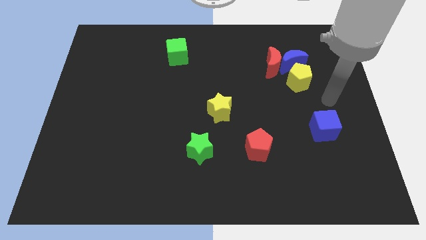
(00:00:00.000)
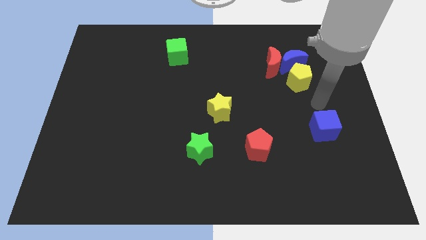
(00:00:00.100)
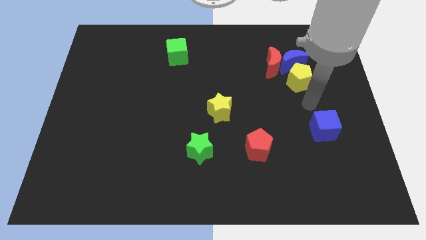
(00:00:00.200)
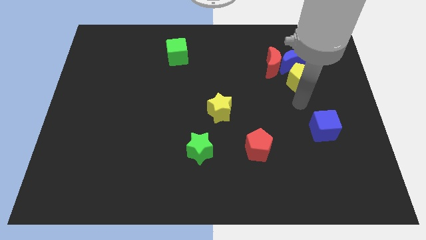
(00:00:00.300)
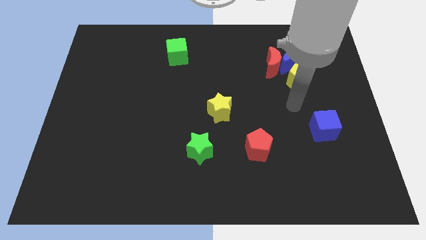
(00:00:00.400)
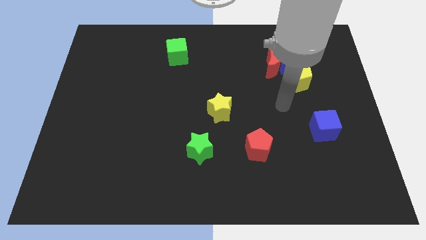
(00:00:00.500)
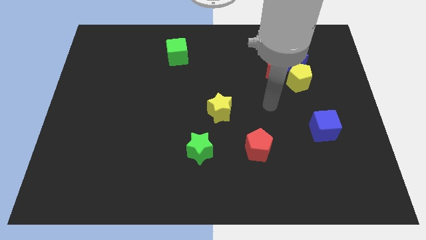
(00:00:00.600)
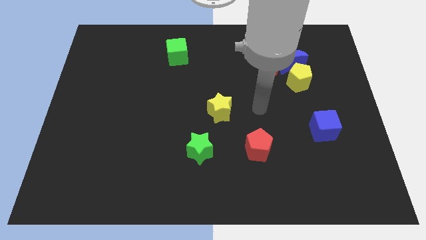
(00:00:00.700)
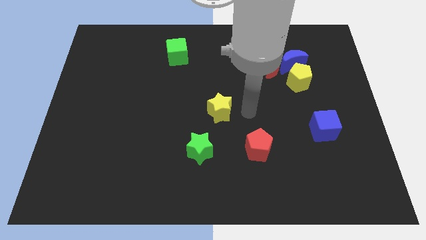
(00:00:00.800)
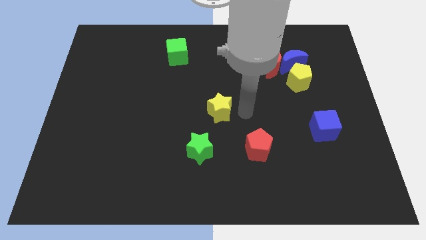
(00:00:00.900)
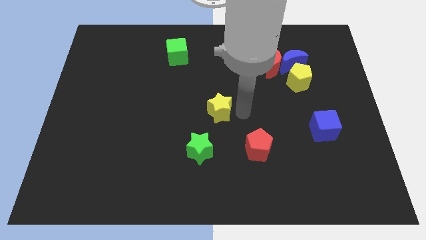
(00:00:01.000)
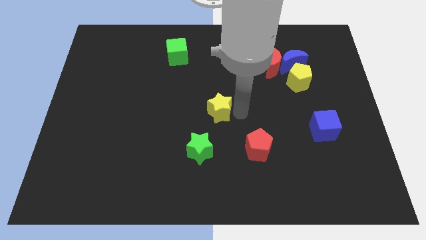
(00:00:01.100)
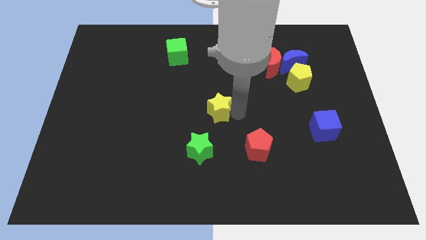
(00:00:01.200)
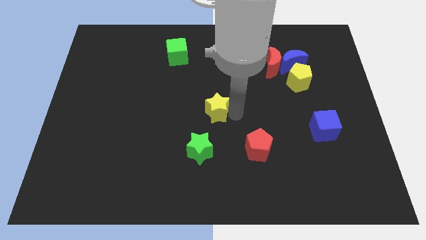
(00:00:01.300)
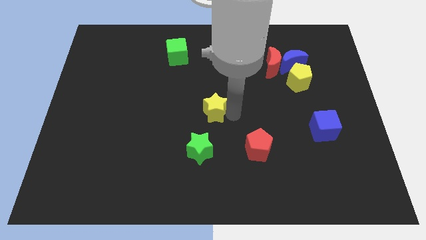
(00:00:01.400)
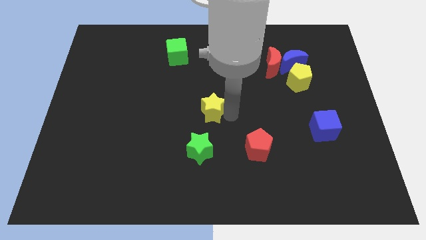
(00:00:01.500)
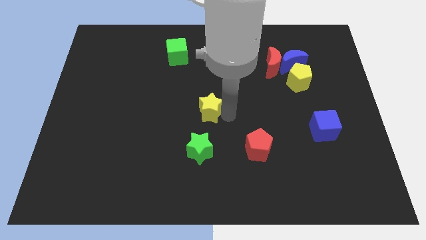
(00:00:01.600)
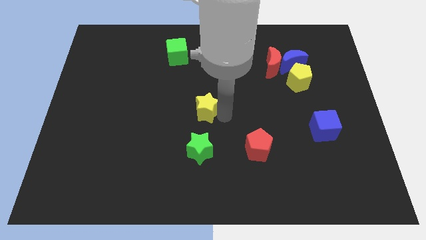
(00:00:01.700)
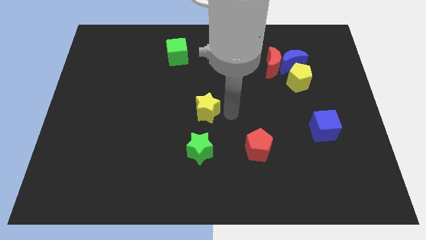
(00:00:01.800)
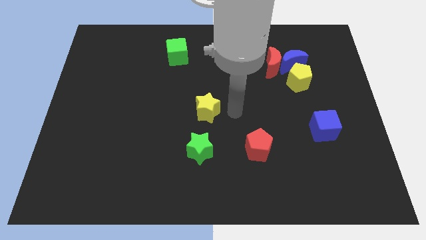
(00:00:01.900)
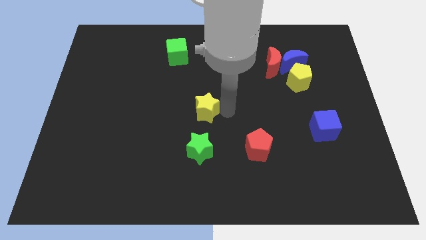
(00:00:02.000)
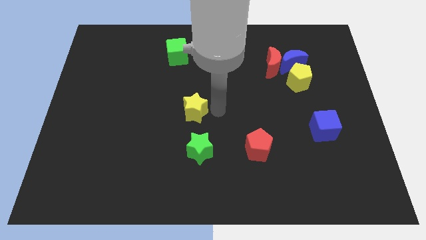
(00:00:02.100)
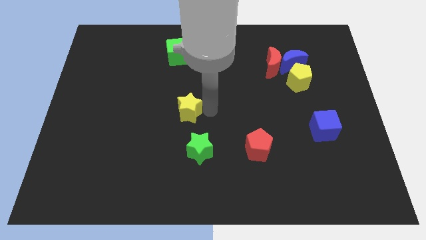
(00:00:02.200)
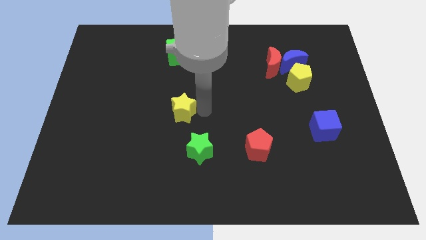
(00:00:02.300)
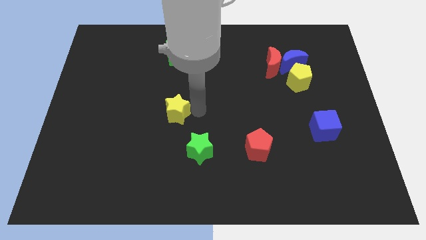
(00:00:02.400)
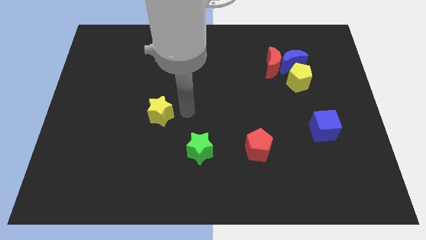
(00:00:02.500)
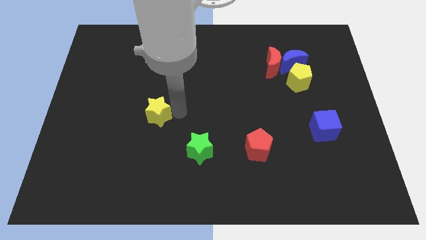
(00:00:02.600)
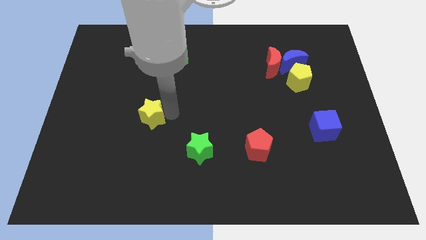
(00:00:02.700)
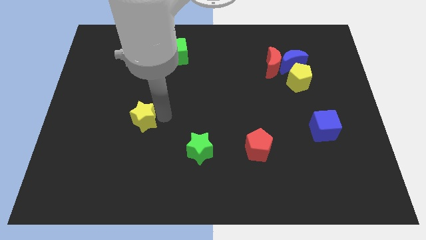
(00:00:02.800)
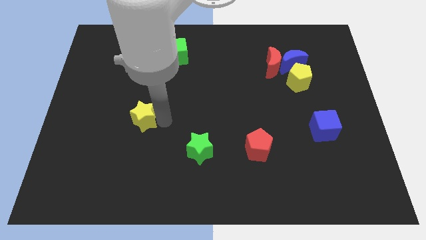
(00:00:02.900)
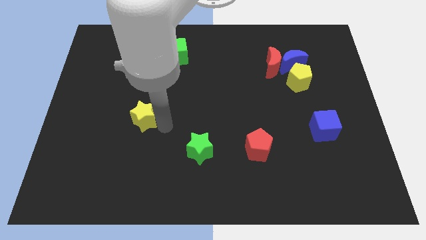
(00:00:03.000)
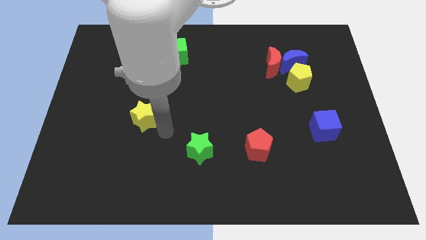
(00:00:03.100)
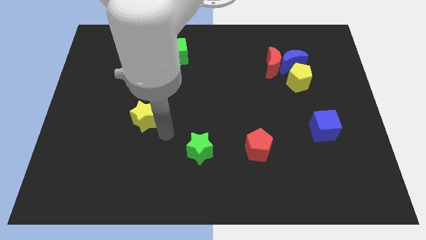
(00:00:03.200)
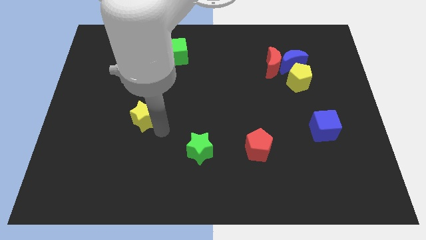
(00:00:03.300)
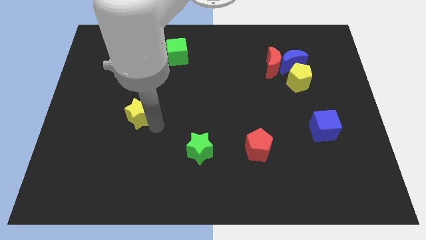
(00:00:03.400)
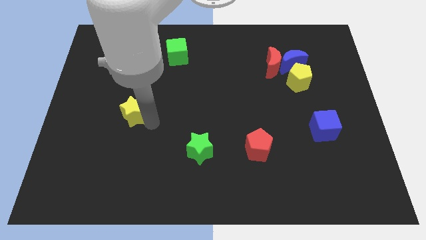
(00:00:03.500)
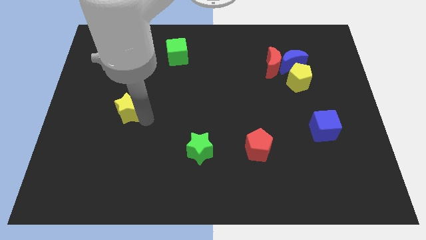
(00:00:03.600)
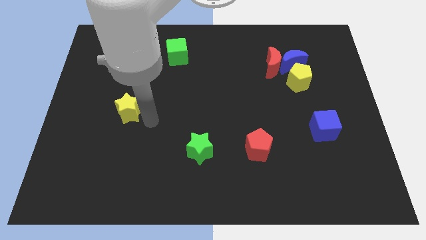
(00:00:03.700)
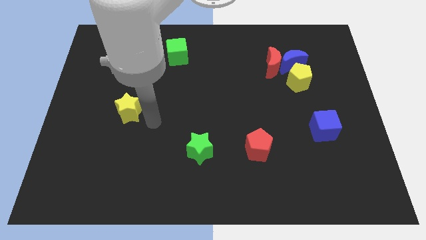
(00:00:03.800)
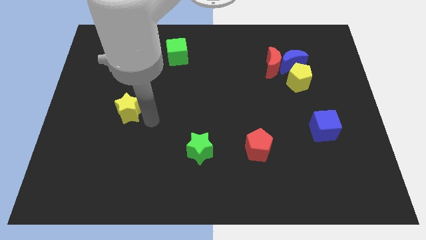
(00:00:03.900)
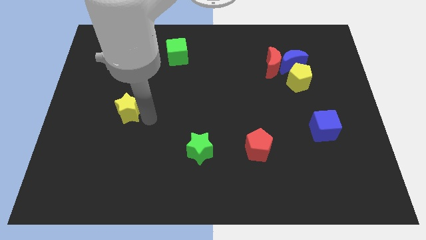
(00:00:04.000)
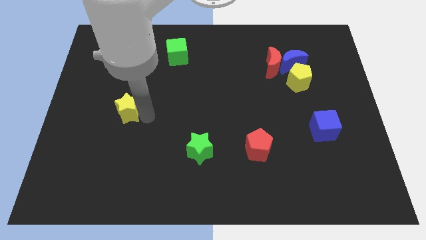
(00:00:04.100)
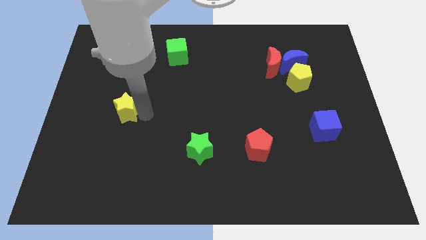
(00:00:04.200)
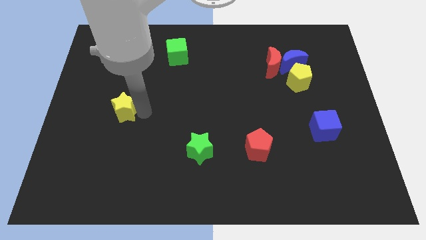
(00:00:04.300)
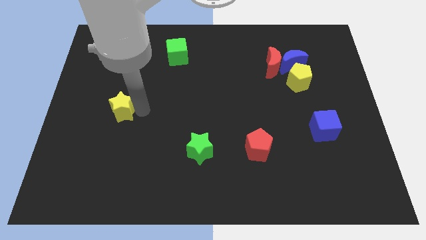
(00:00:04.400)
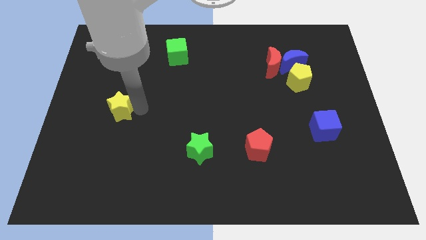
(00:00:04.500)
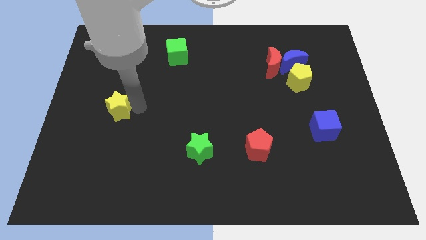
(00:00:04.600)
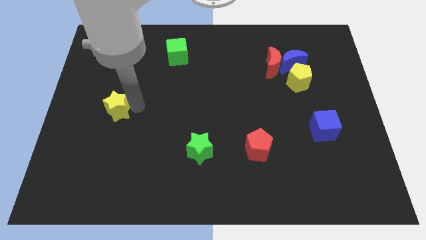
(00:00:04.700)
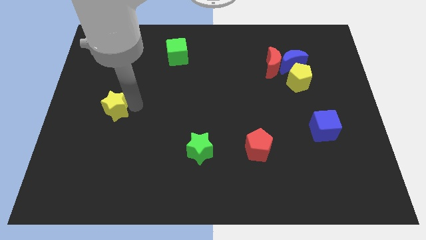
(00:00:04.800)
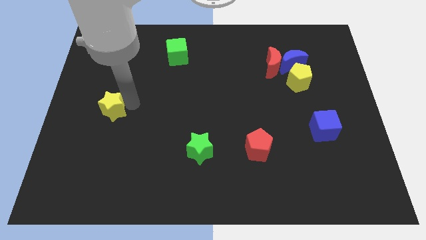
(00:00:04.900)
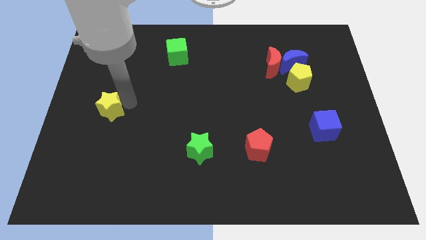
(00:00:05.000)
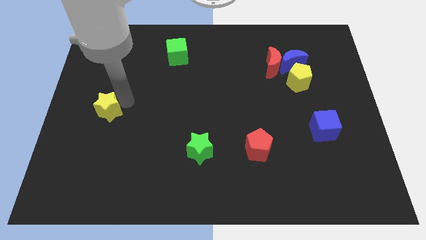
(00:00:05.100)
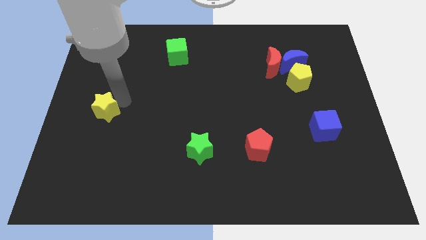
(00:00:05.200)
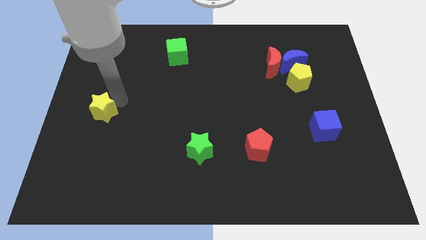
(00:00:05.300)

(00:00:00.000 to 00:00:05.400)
move the yellow star to the left side

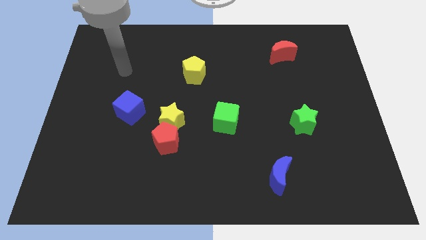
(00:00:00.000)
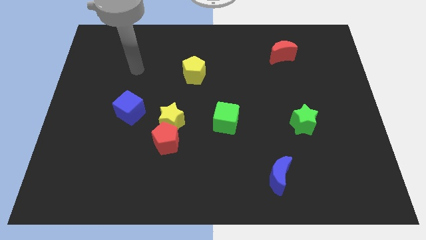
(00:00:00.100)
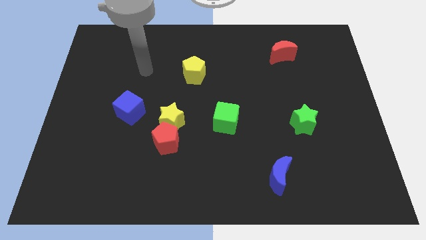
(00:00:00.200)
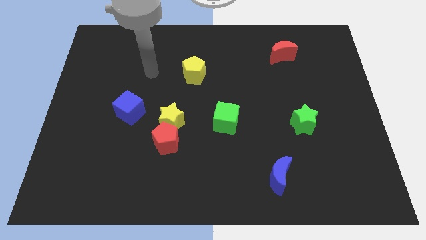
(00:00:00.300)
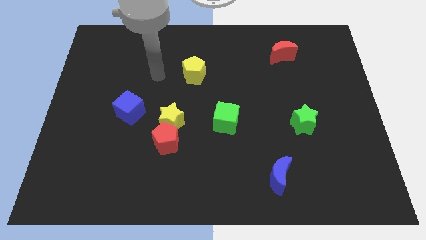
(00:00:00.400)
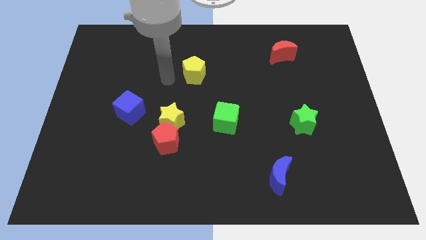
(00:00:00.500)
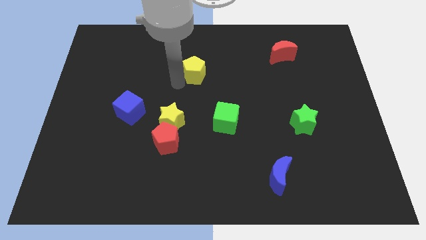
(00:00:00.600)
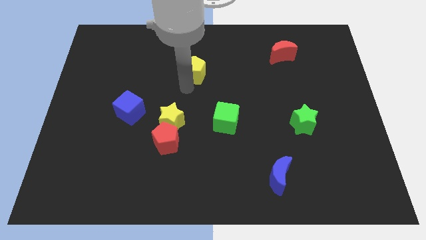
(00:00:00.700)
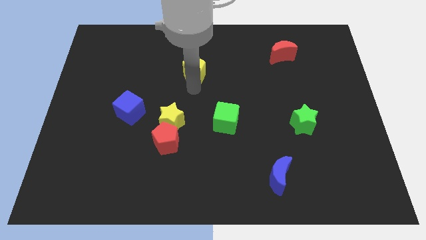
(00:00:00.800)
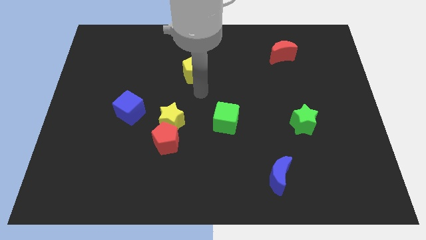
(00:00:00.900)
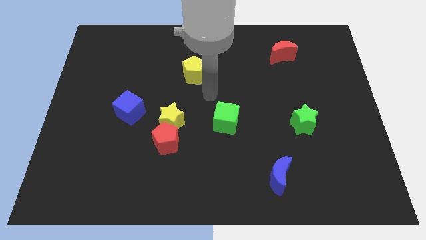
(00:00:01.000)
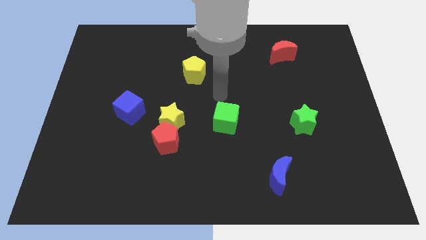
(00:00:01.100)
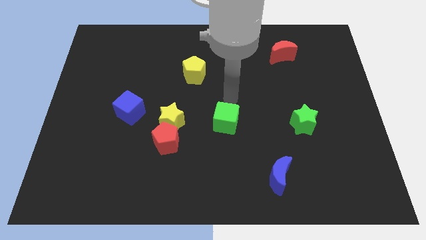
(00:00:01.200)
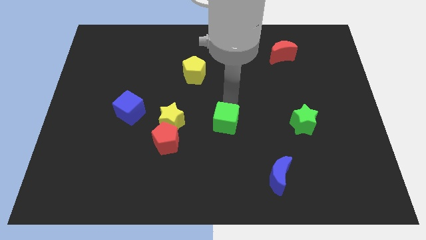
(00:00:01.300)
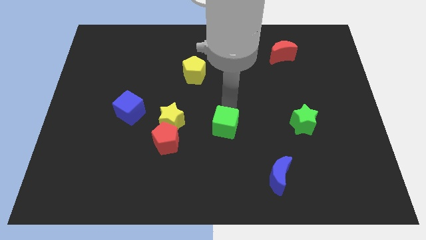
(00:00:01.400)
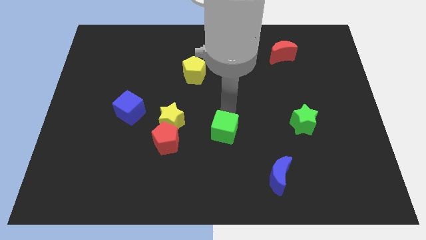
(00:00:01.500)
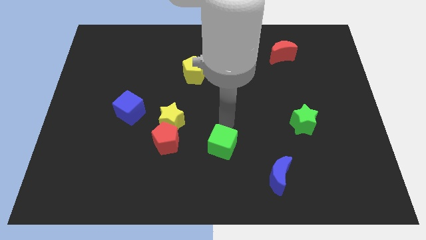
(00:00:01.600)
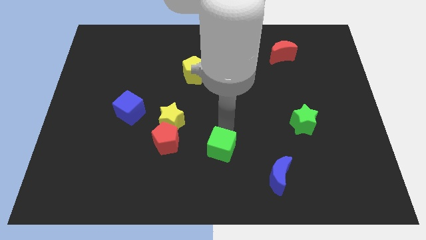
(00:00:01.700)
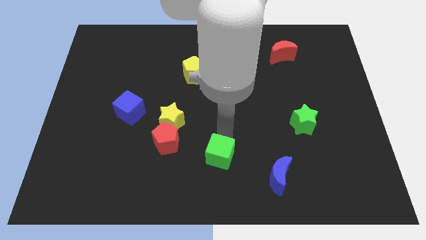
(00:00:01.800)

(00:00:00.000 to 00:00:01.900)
move the green cube to the bottom

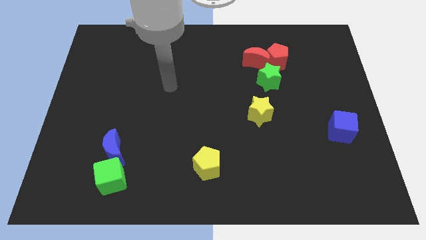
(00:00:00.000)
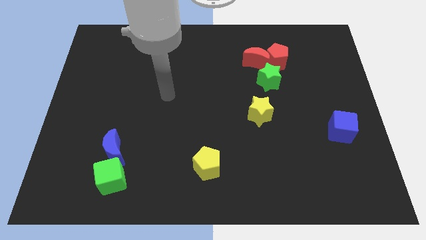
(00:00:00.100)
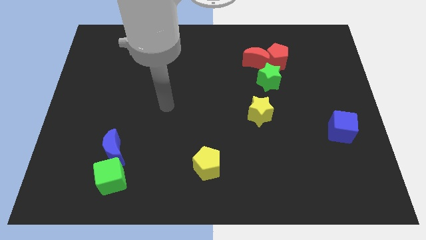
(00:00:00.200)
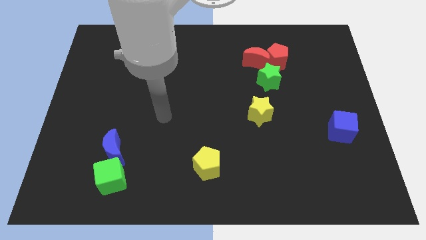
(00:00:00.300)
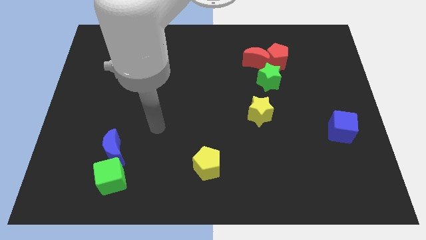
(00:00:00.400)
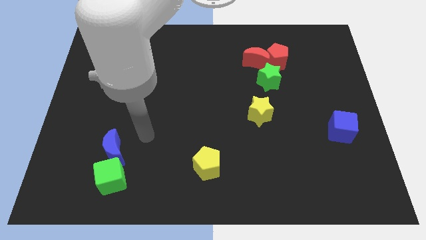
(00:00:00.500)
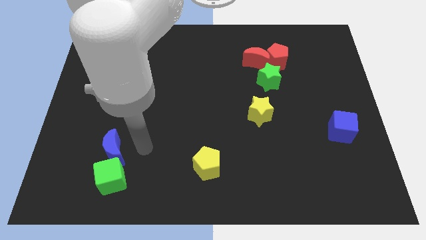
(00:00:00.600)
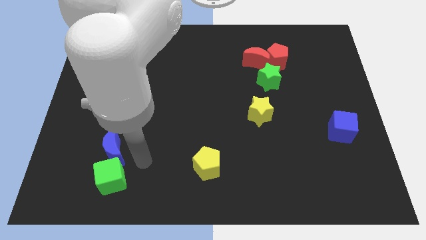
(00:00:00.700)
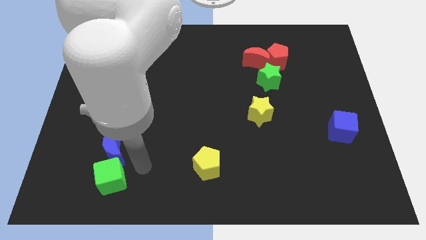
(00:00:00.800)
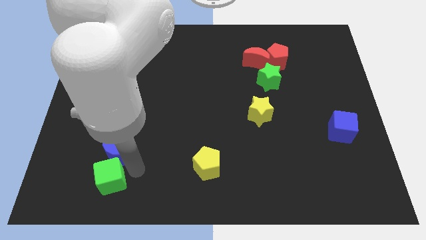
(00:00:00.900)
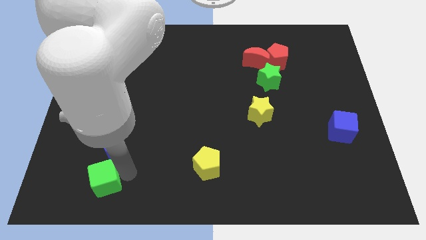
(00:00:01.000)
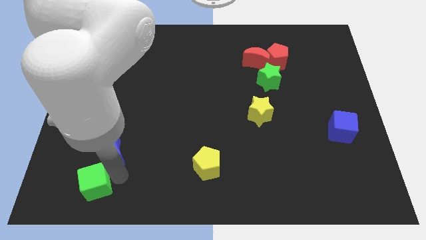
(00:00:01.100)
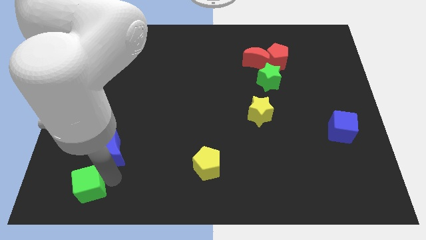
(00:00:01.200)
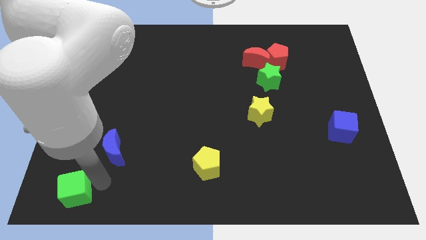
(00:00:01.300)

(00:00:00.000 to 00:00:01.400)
put the green cube to the lower left corner
